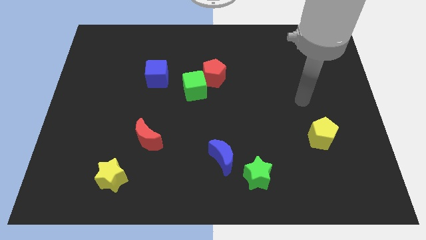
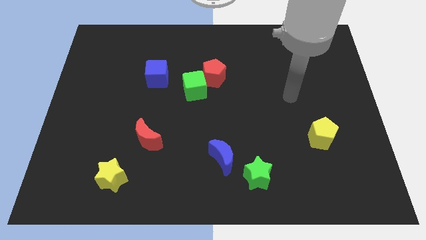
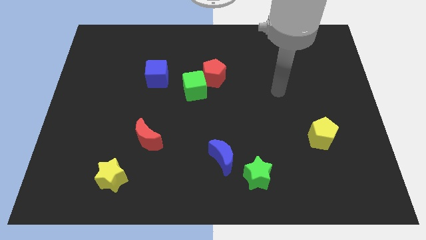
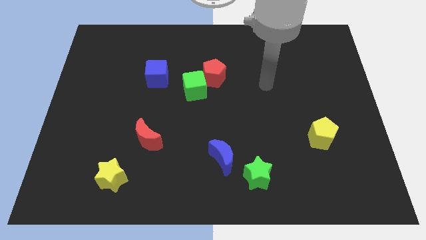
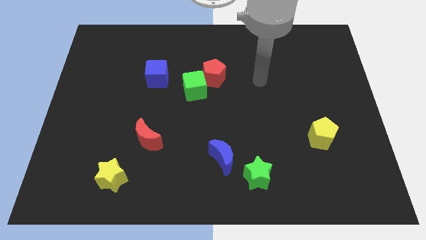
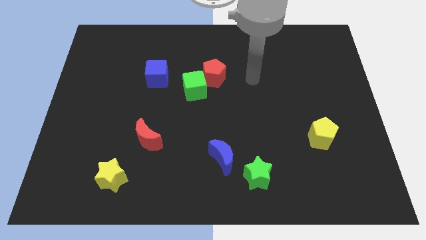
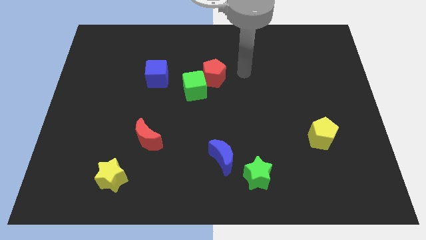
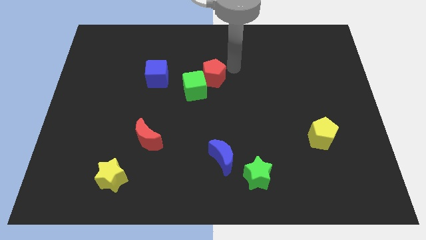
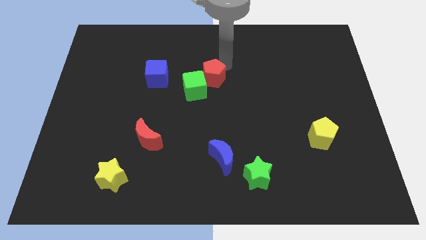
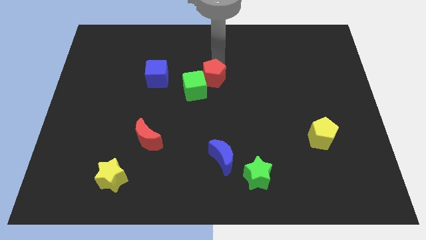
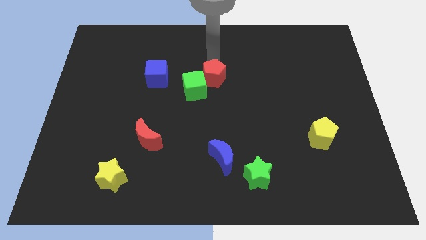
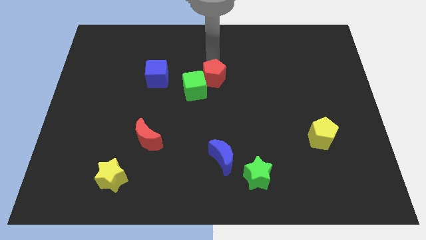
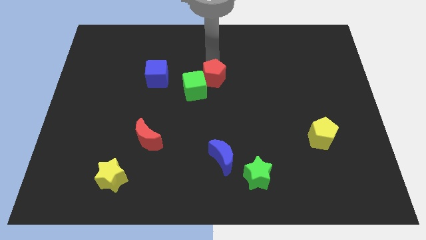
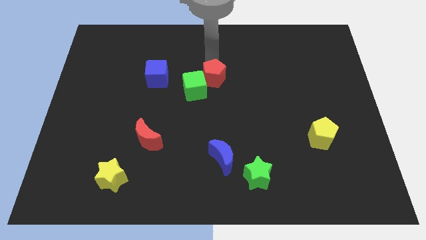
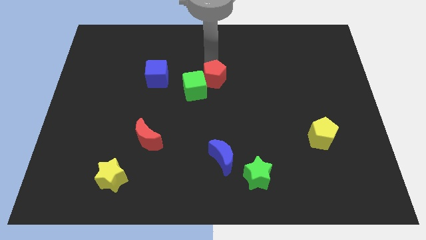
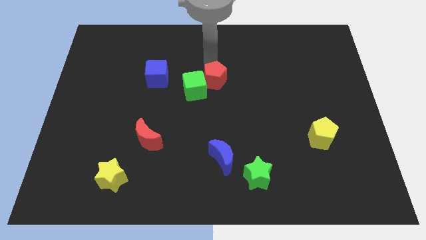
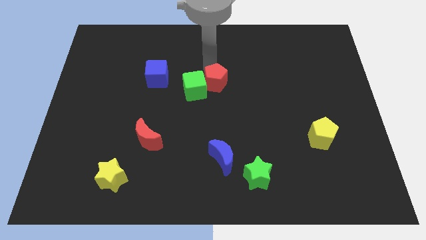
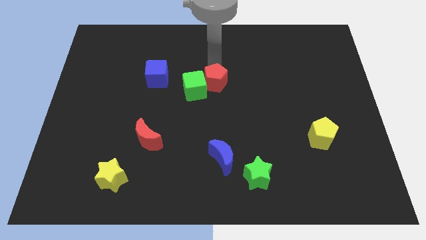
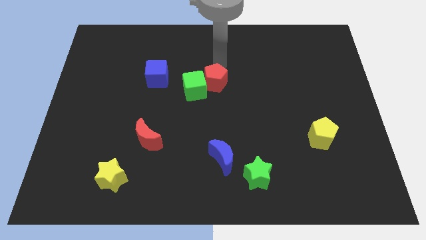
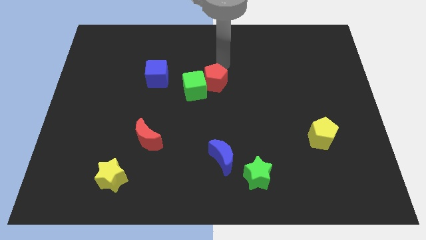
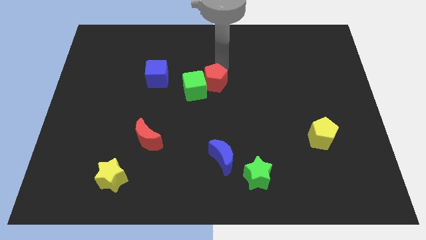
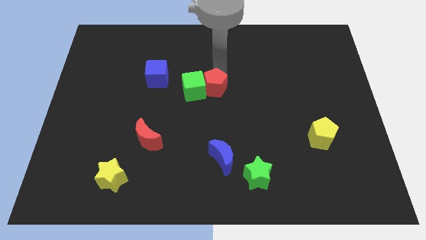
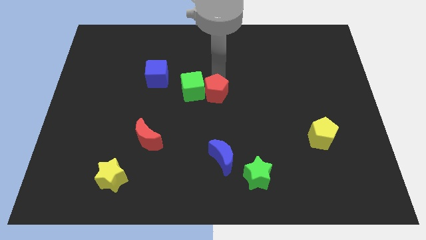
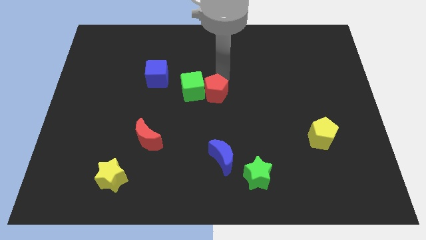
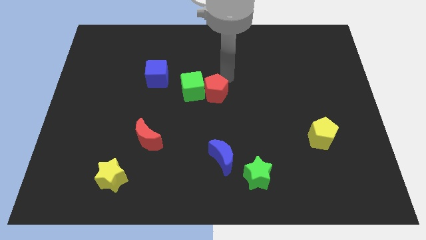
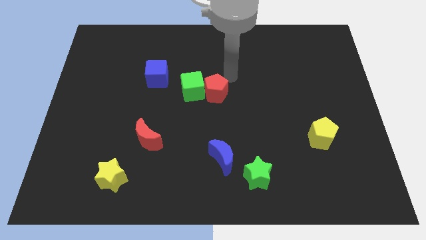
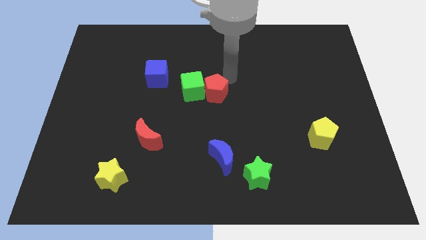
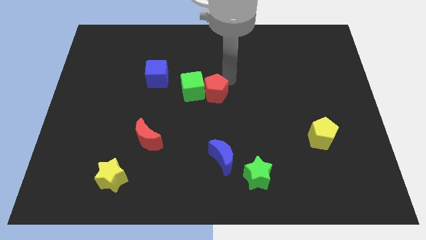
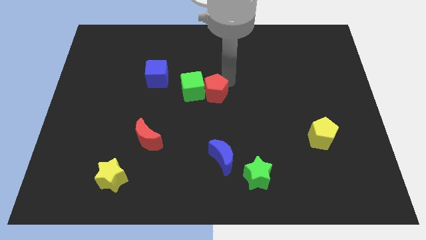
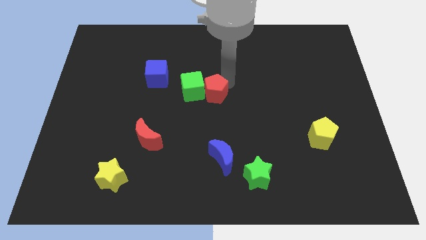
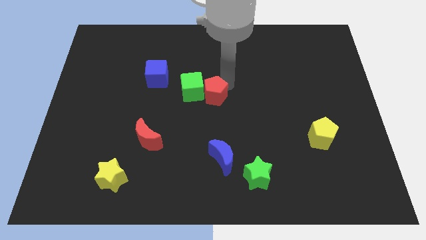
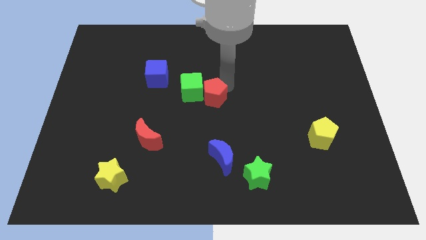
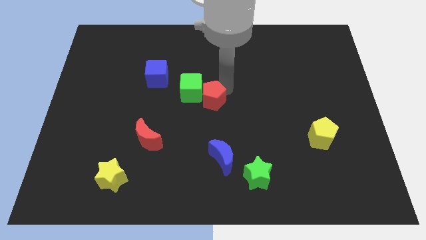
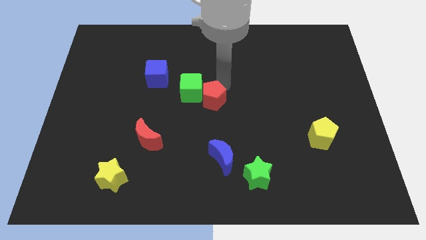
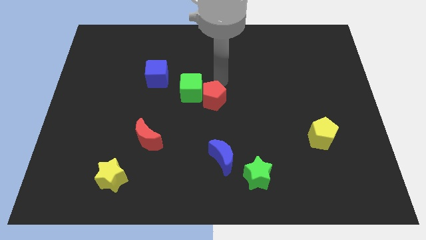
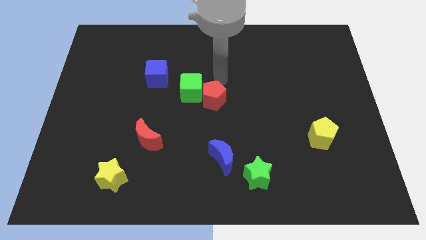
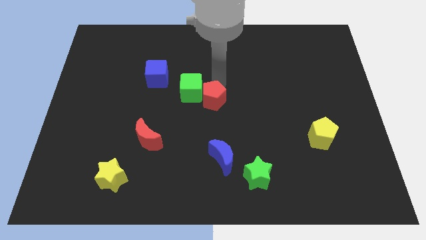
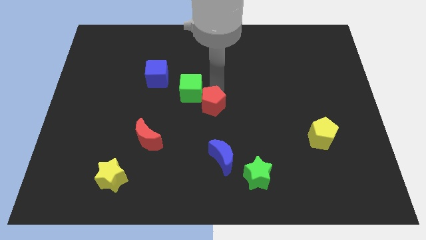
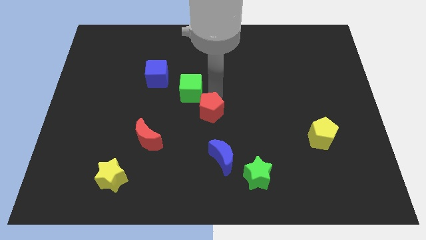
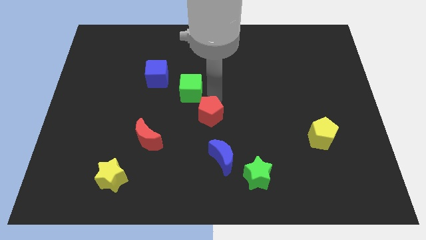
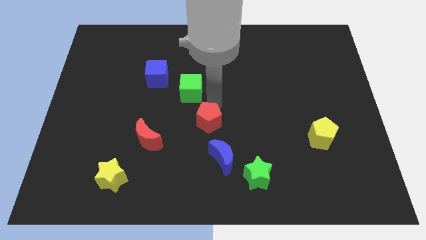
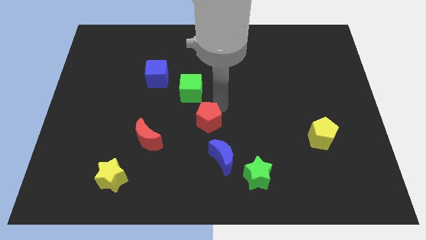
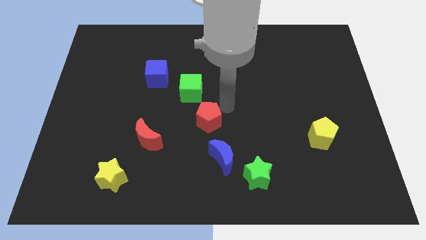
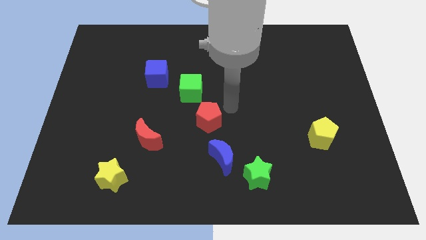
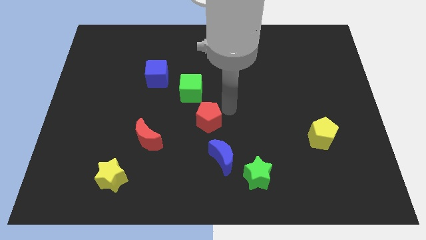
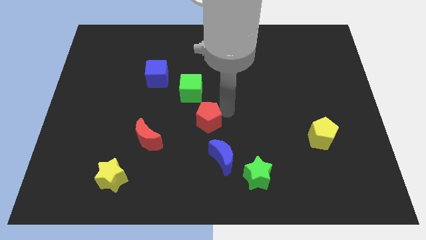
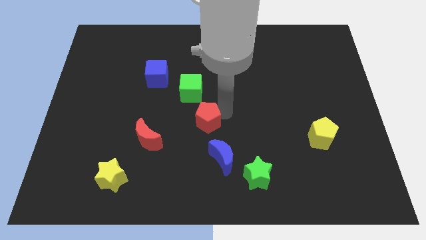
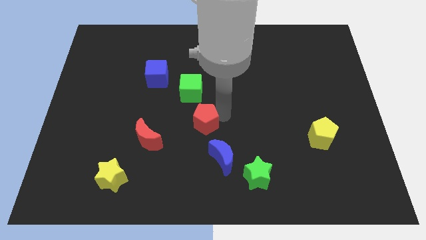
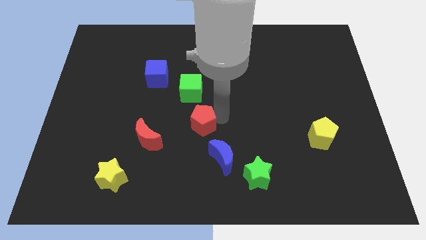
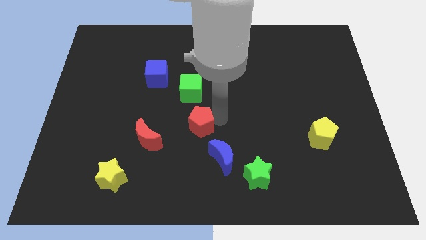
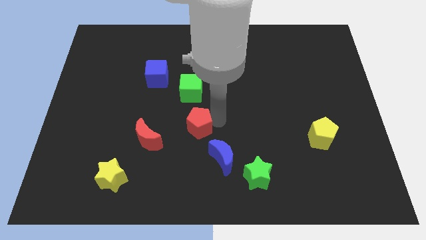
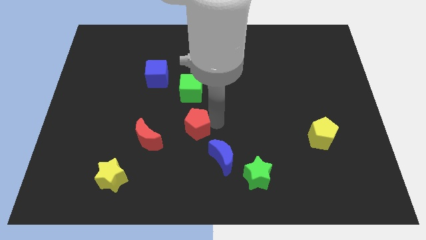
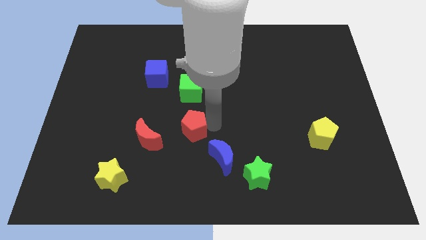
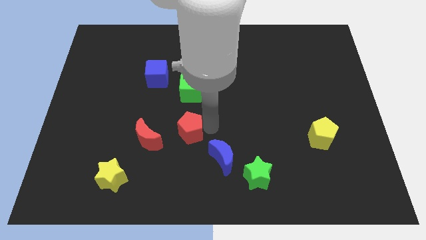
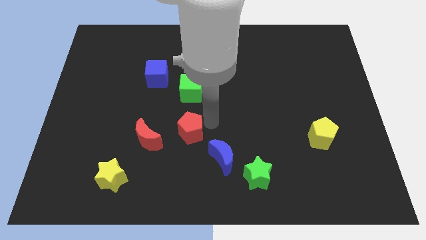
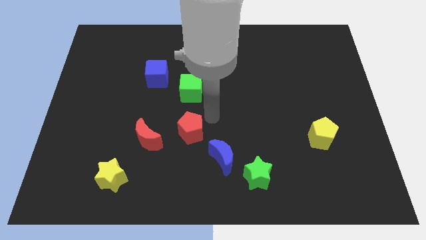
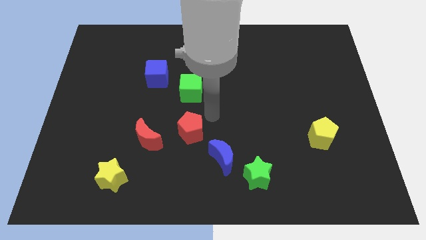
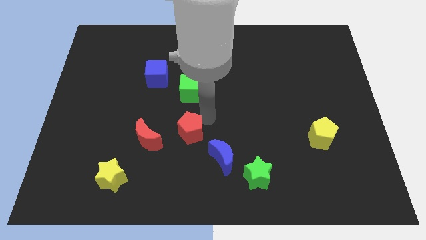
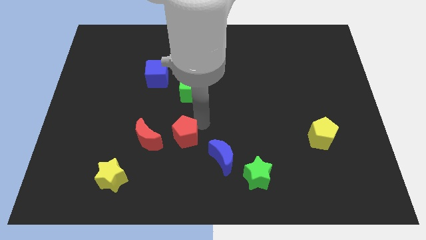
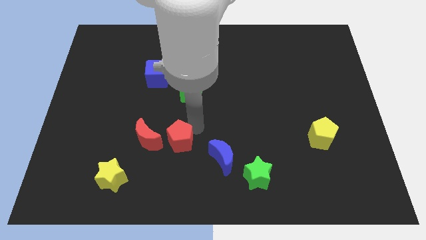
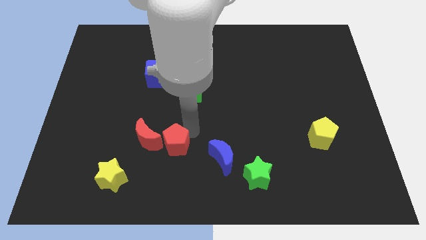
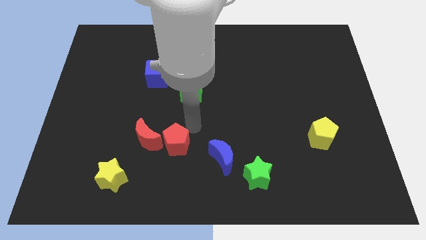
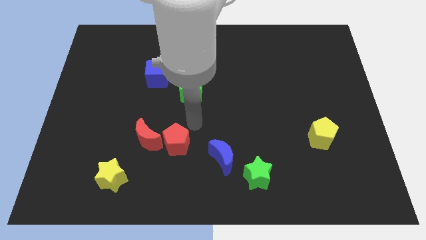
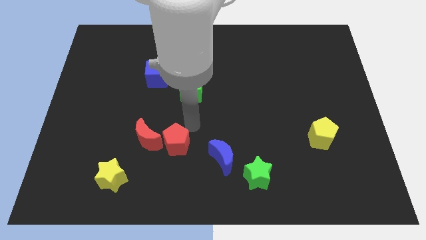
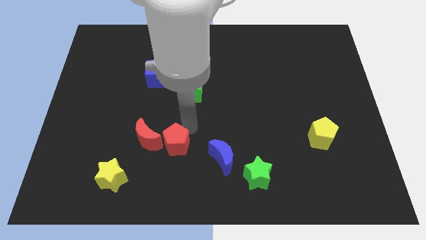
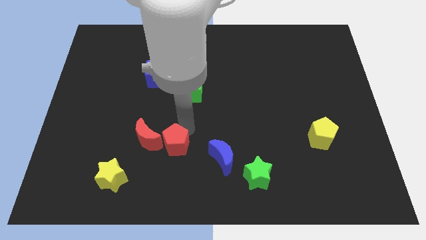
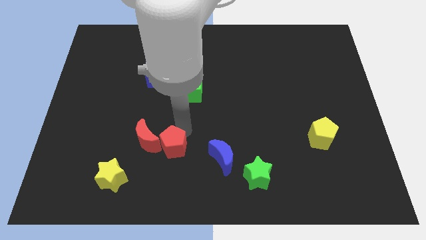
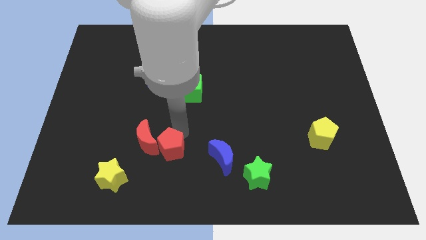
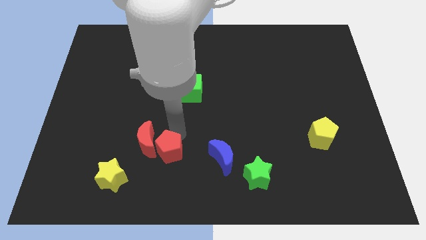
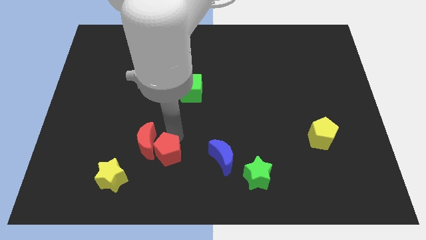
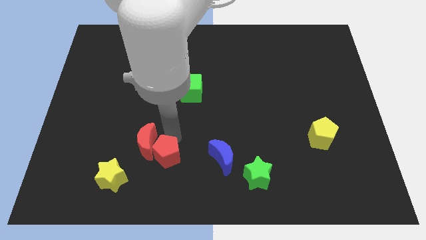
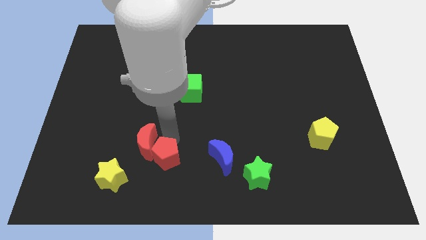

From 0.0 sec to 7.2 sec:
push the red pentagon to the bottom side of the red moon

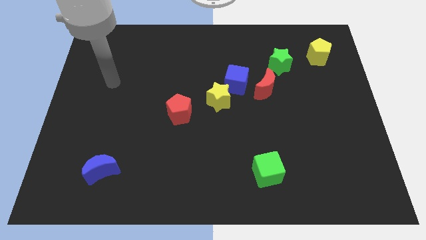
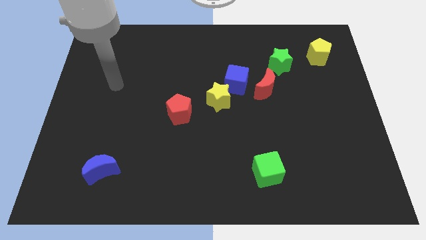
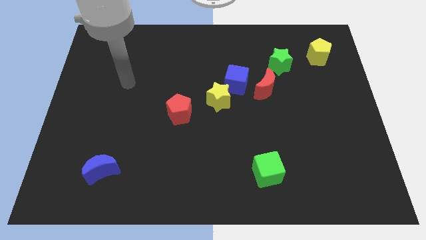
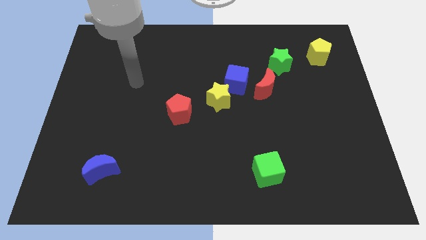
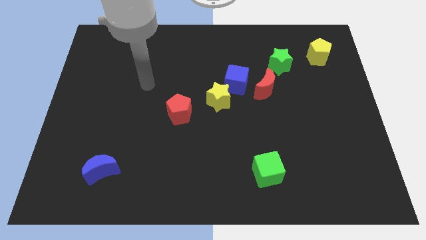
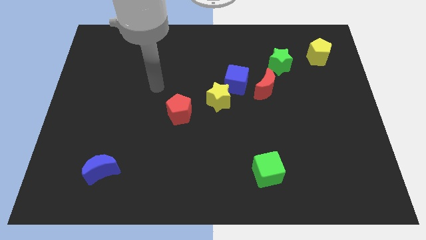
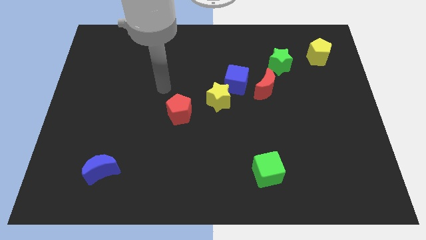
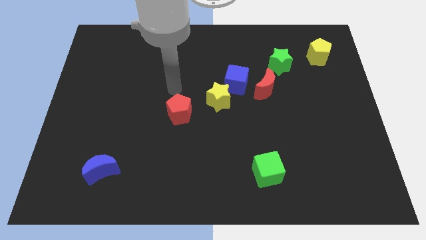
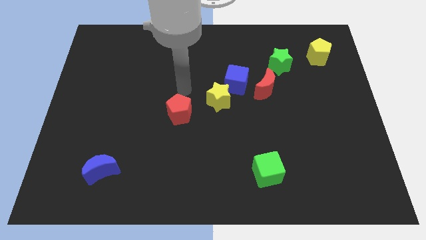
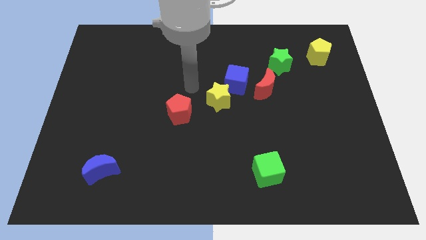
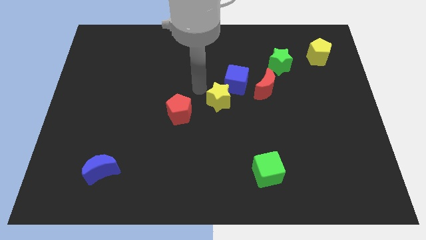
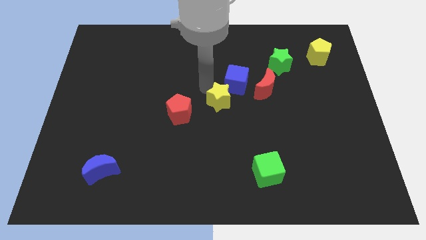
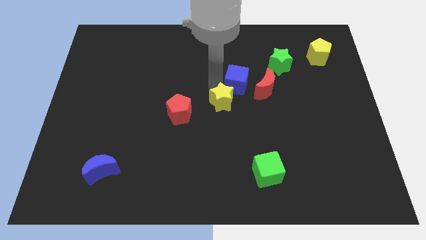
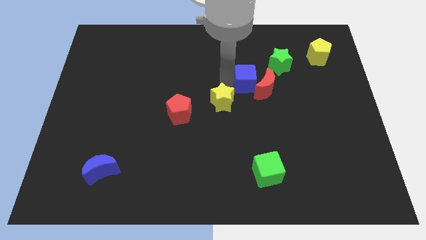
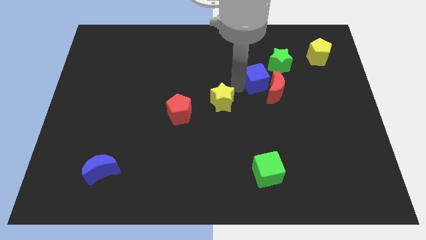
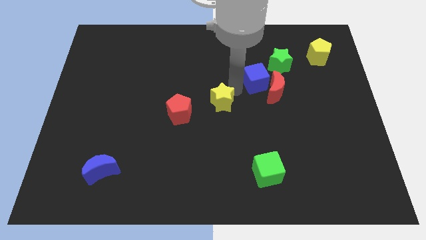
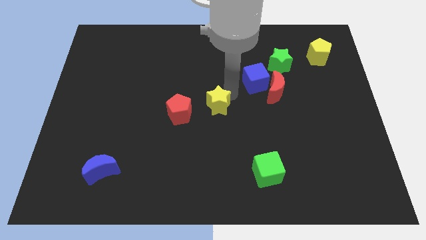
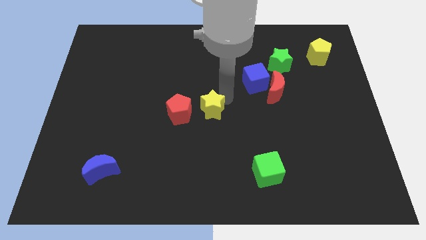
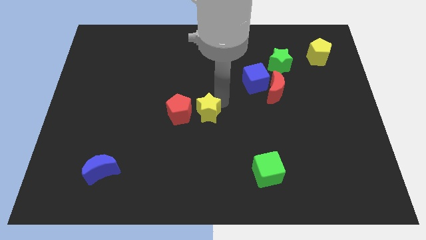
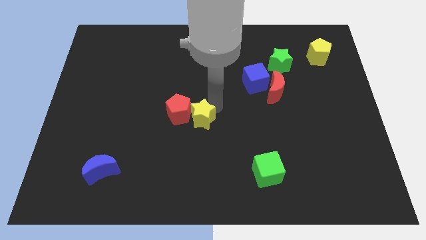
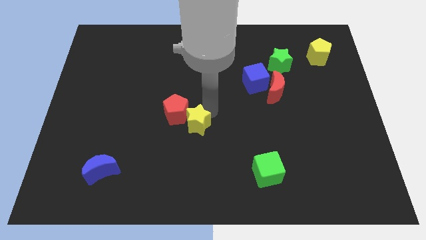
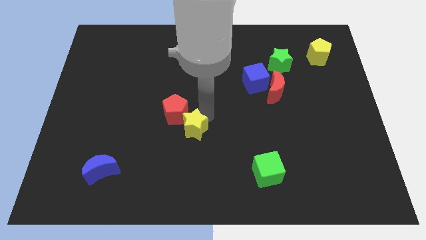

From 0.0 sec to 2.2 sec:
move the yellow star to the bottom side of the red pentagon
